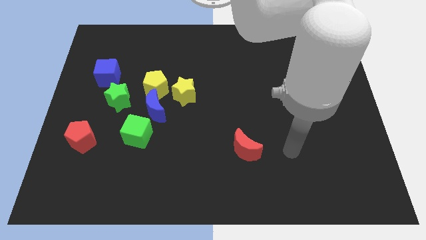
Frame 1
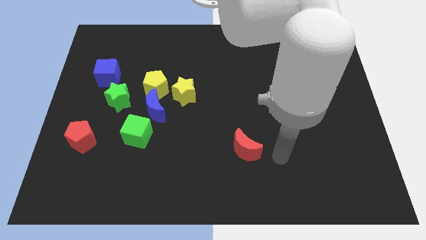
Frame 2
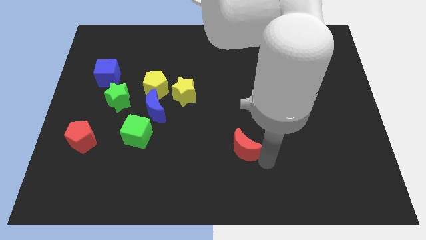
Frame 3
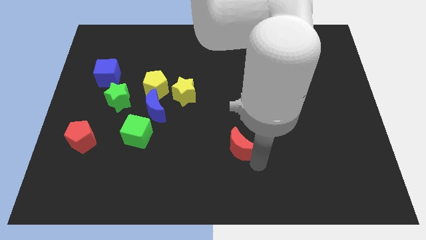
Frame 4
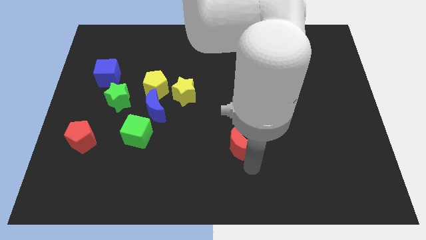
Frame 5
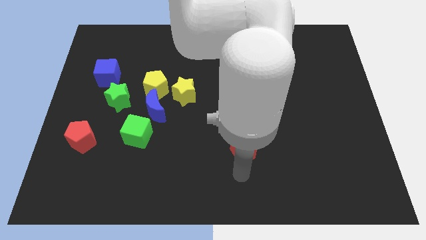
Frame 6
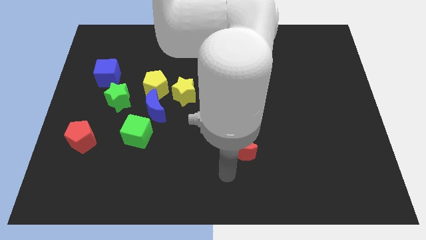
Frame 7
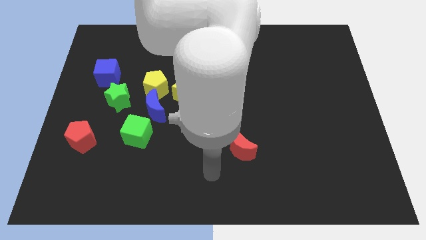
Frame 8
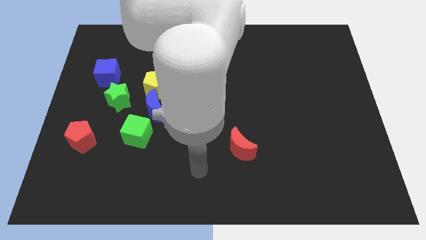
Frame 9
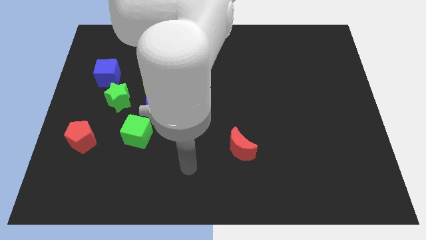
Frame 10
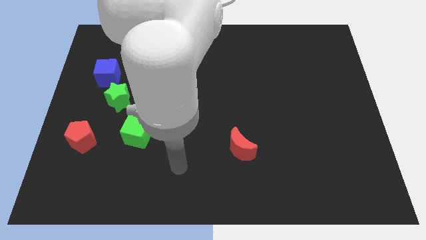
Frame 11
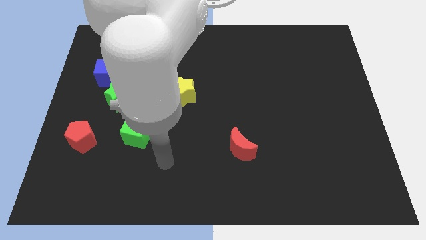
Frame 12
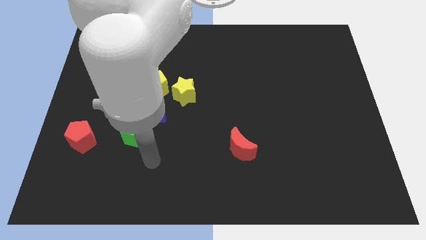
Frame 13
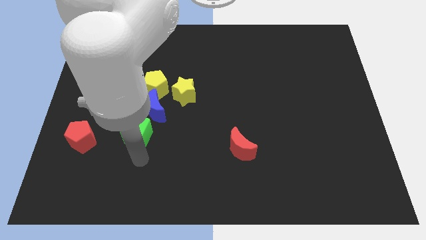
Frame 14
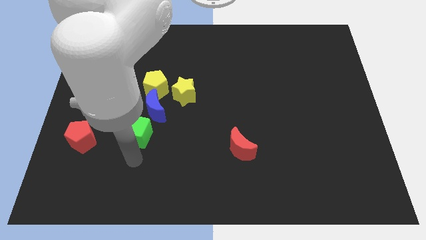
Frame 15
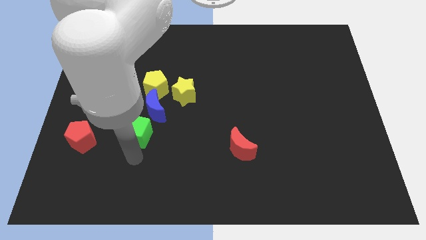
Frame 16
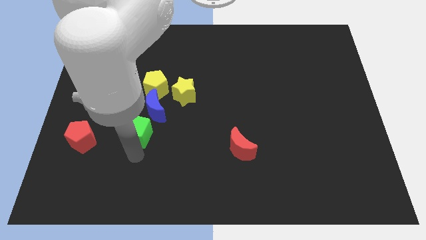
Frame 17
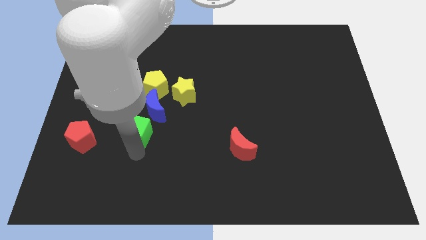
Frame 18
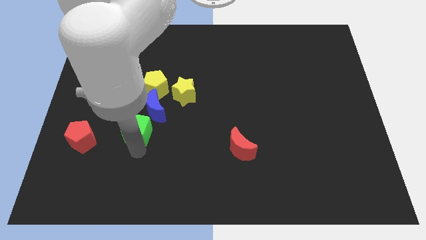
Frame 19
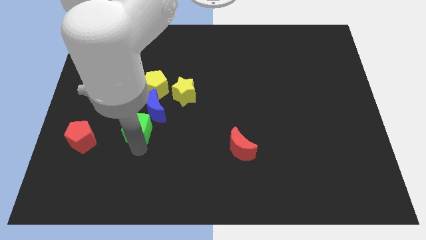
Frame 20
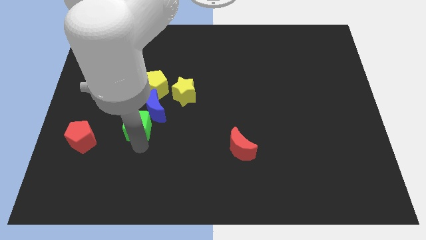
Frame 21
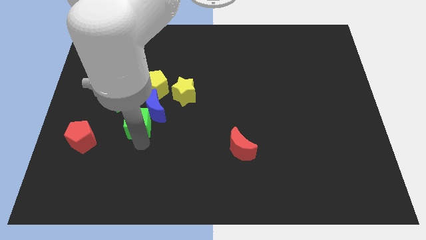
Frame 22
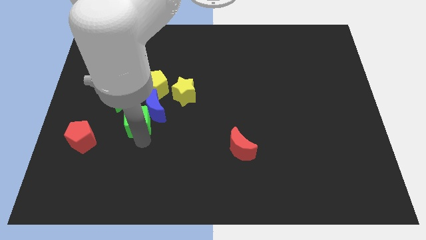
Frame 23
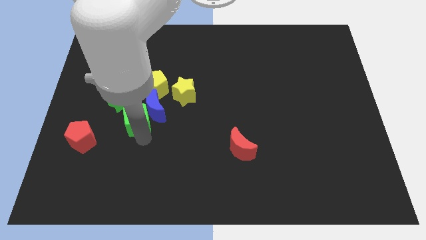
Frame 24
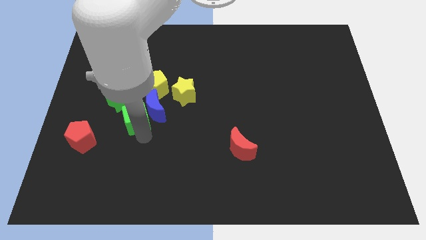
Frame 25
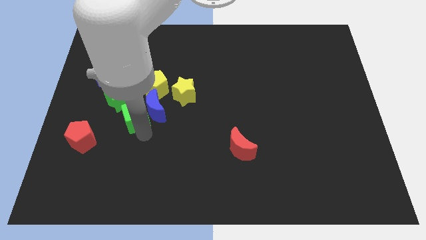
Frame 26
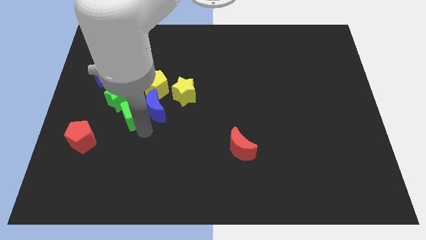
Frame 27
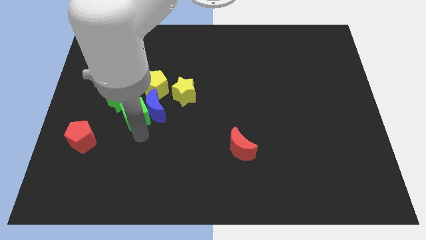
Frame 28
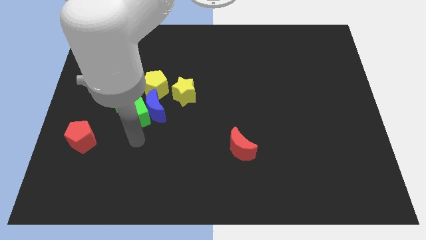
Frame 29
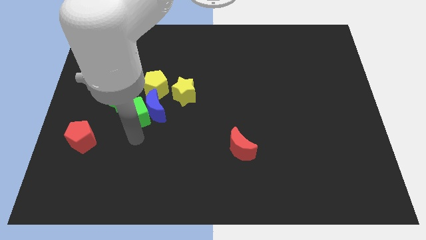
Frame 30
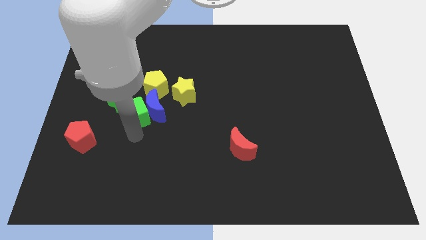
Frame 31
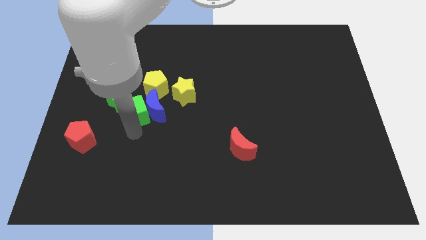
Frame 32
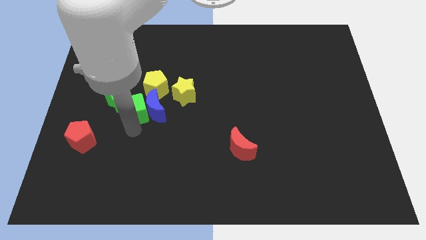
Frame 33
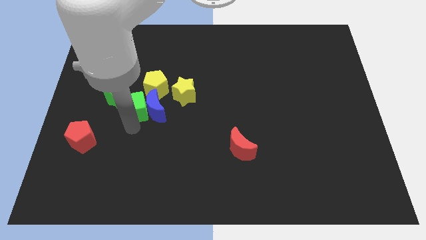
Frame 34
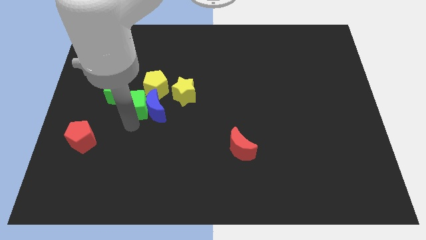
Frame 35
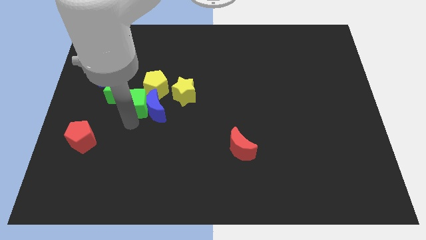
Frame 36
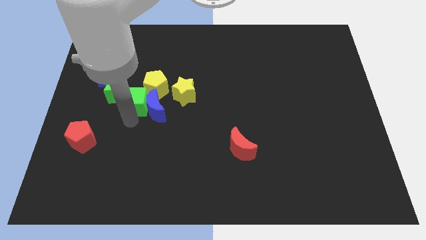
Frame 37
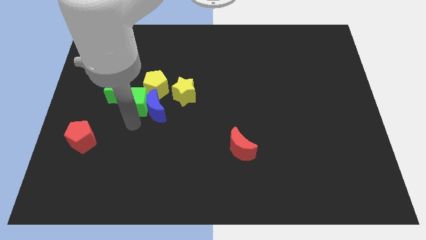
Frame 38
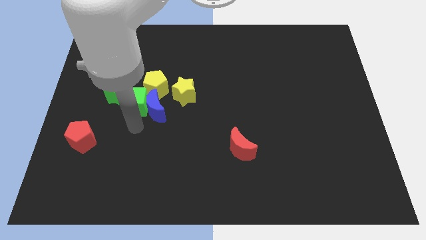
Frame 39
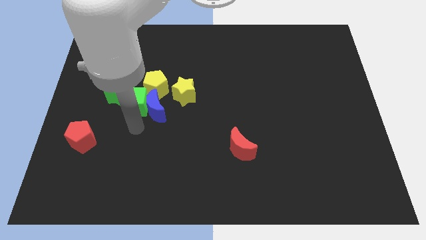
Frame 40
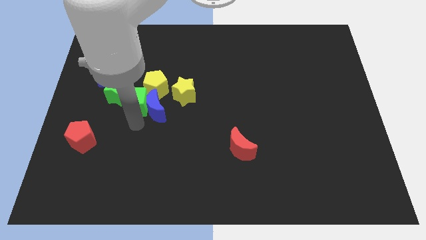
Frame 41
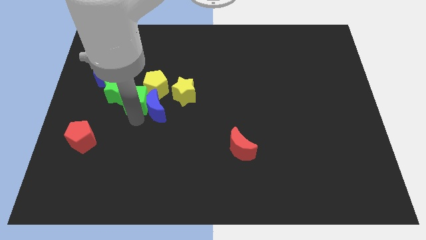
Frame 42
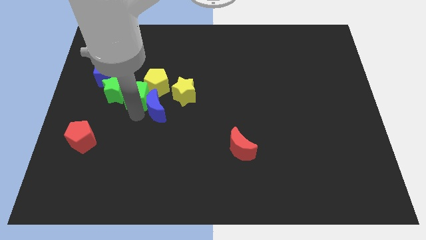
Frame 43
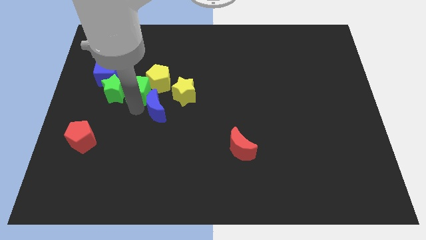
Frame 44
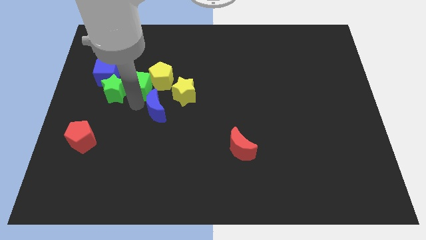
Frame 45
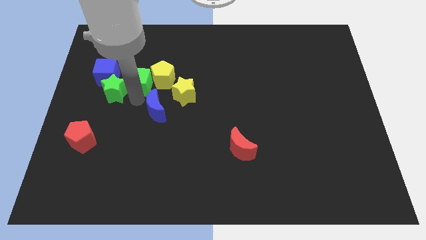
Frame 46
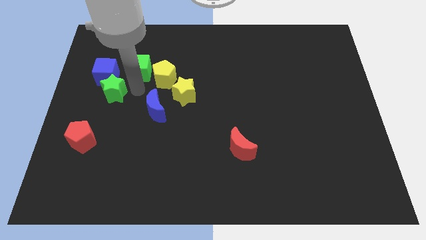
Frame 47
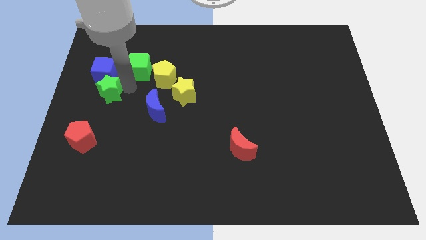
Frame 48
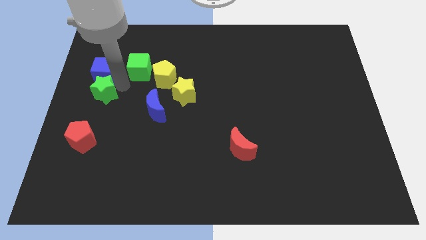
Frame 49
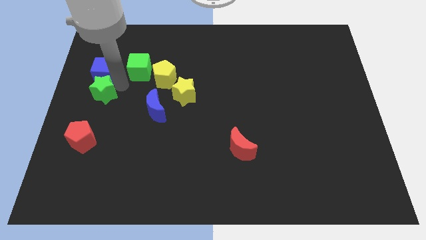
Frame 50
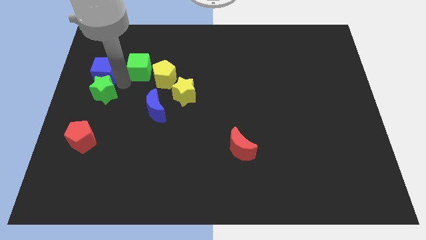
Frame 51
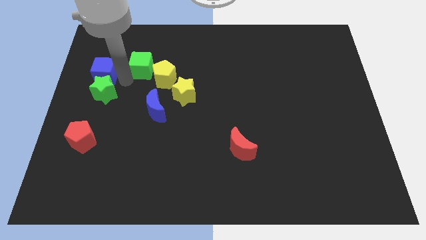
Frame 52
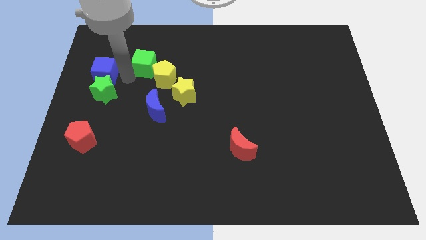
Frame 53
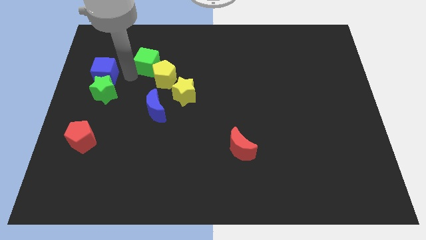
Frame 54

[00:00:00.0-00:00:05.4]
slide the green cube to the top of the yellow pentagon

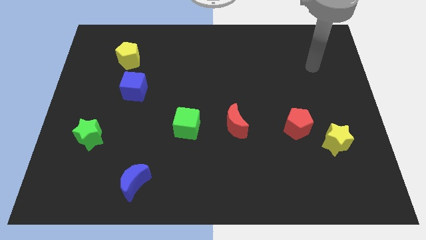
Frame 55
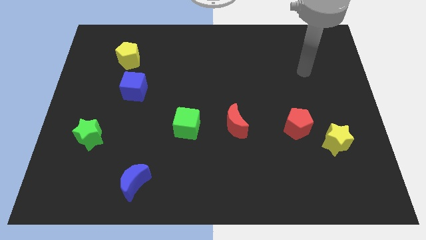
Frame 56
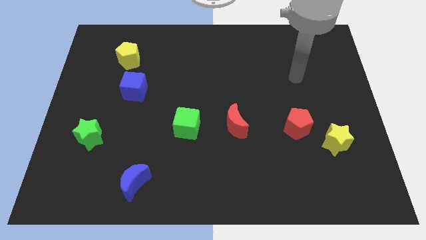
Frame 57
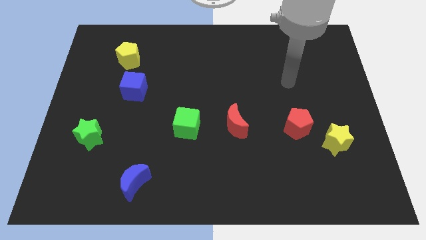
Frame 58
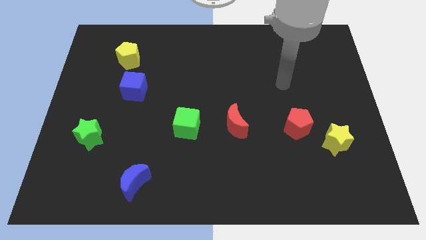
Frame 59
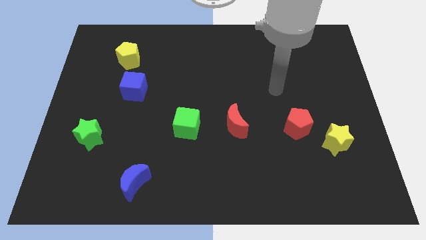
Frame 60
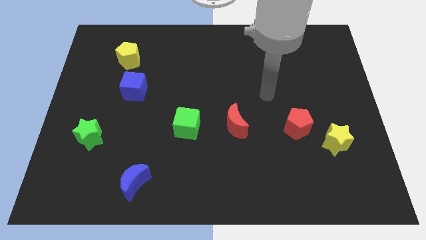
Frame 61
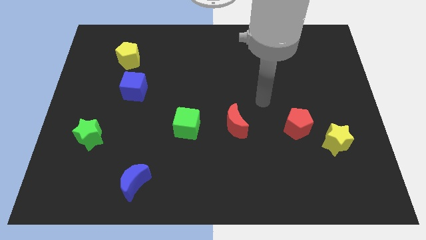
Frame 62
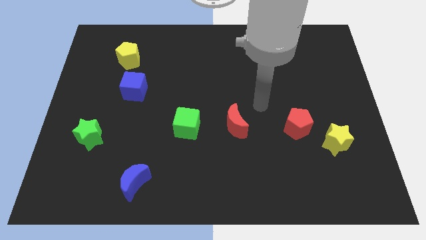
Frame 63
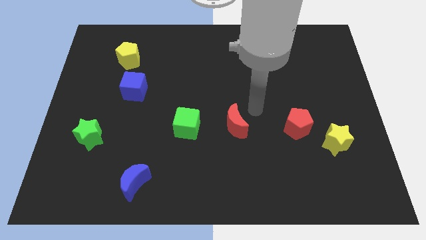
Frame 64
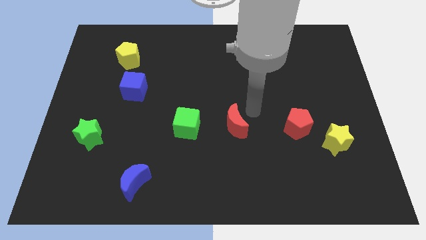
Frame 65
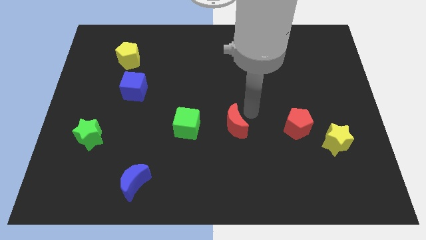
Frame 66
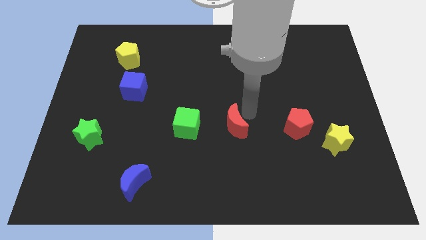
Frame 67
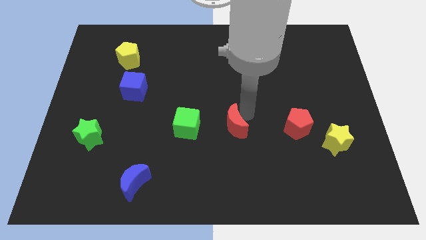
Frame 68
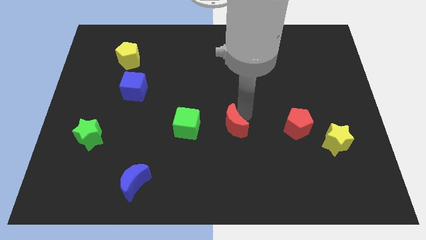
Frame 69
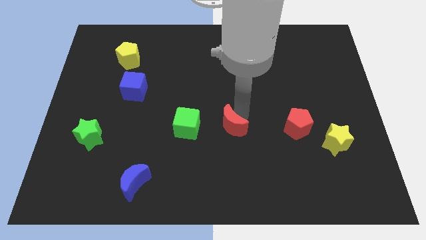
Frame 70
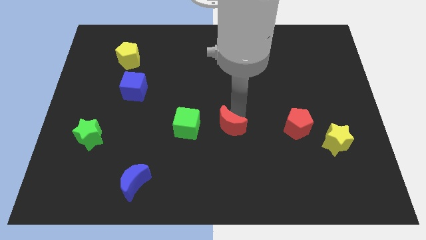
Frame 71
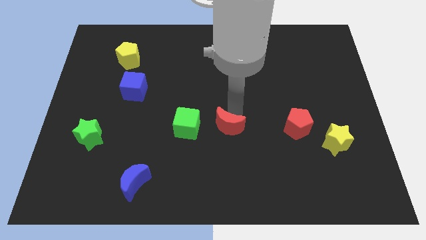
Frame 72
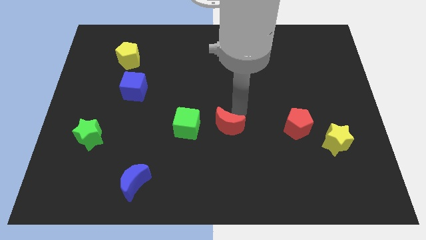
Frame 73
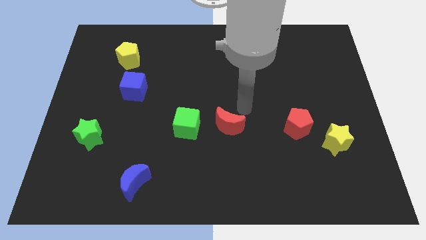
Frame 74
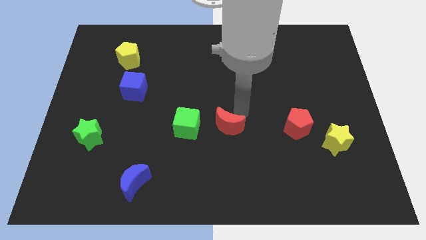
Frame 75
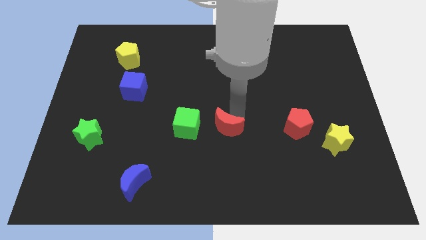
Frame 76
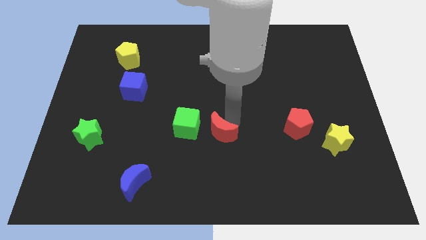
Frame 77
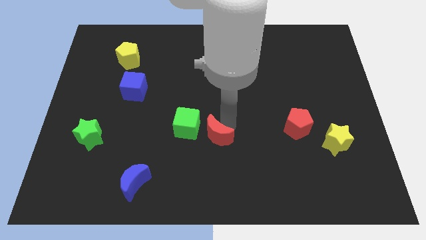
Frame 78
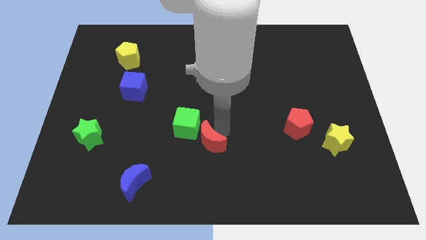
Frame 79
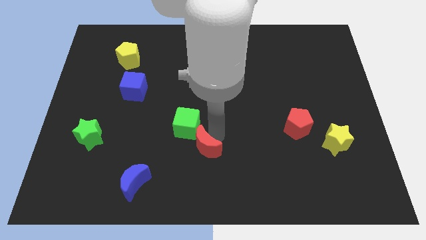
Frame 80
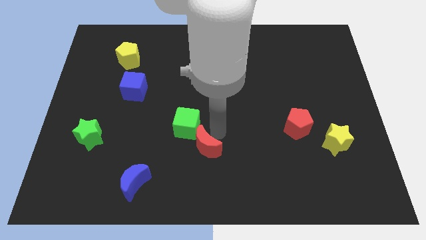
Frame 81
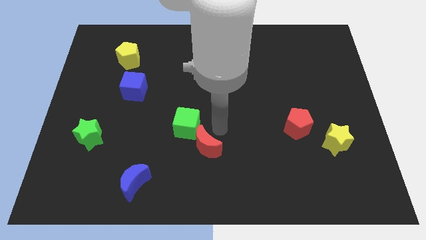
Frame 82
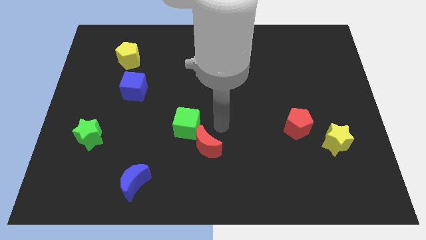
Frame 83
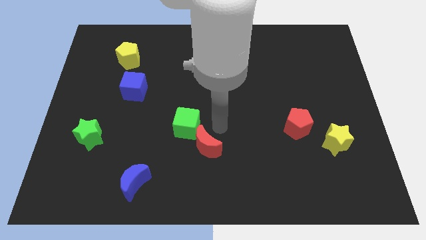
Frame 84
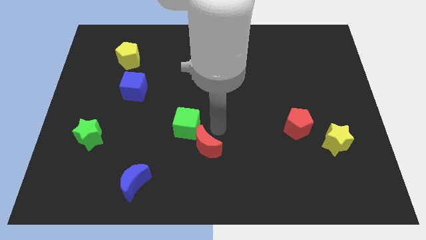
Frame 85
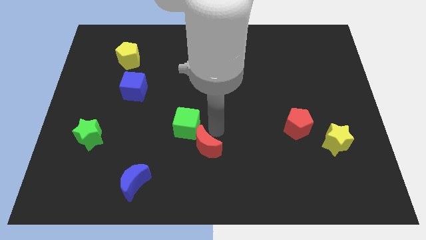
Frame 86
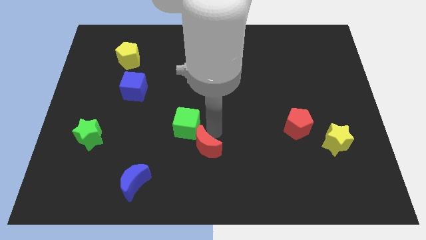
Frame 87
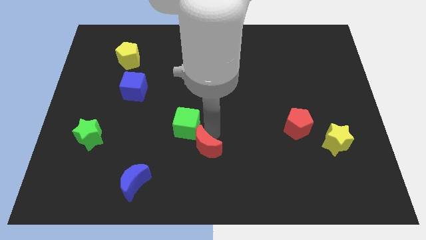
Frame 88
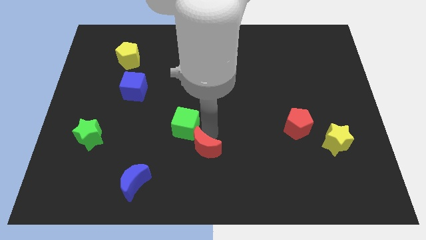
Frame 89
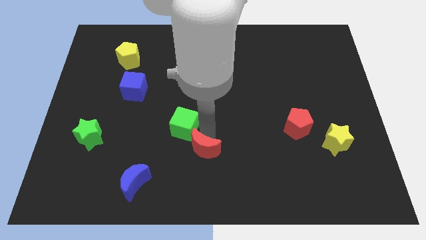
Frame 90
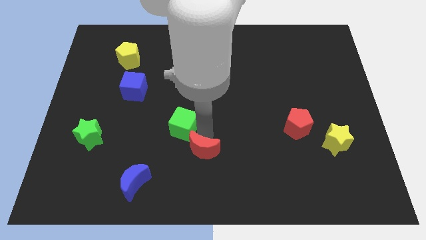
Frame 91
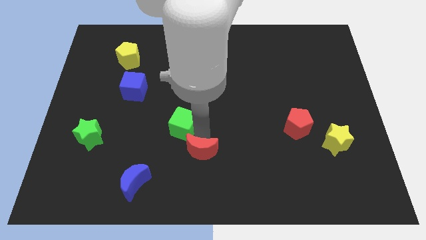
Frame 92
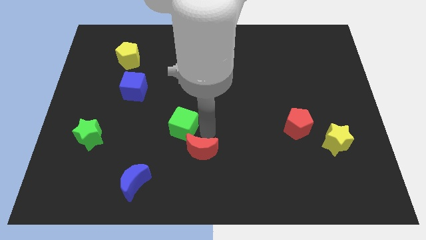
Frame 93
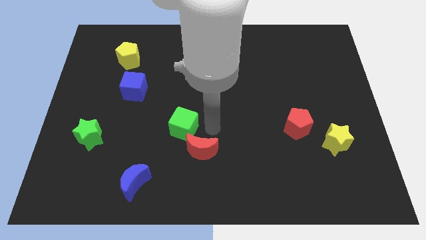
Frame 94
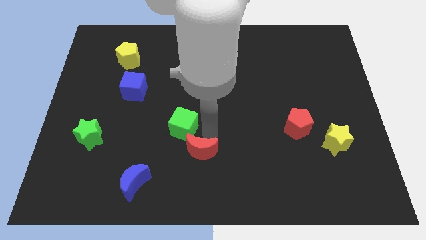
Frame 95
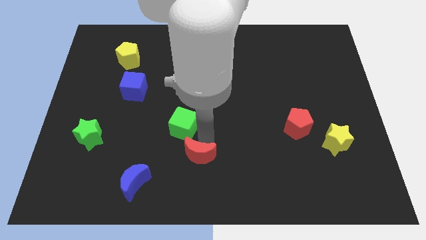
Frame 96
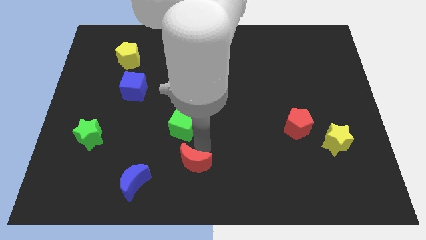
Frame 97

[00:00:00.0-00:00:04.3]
move the red moon right of the blue moon
